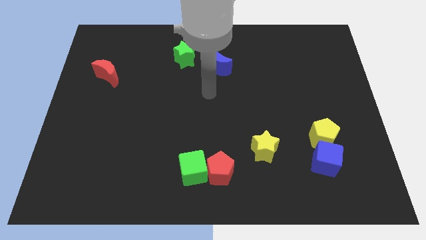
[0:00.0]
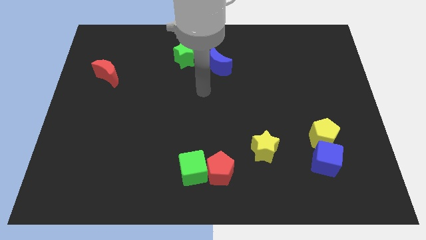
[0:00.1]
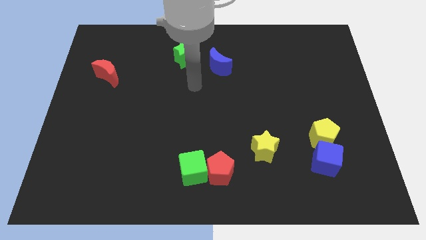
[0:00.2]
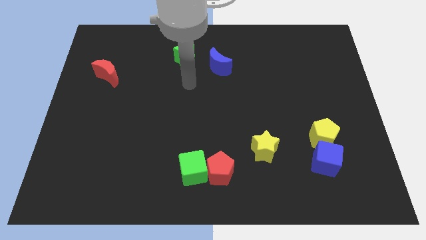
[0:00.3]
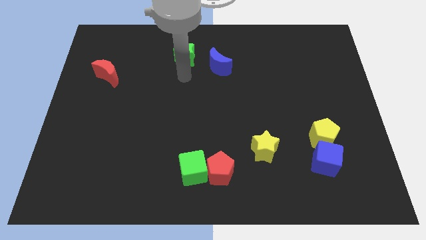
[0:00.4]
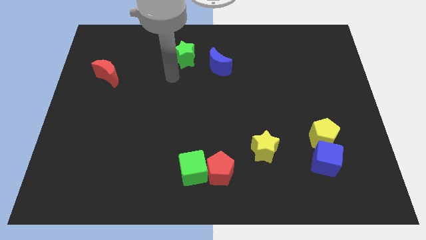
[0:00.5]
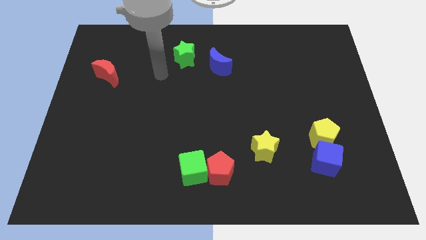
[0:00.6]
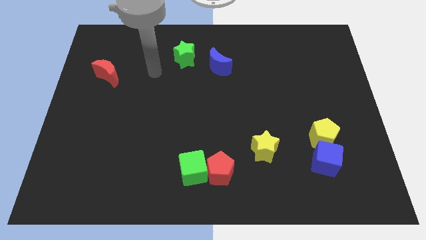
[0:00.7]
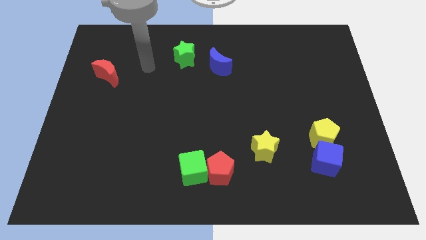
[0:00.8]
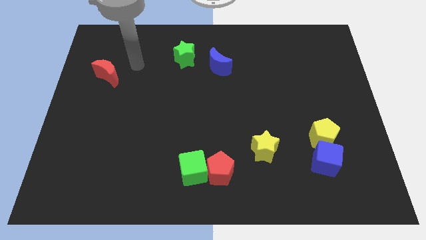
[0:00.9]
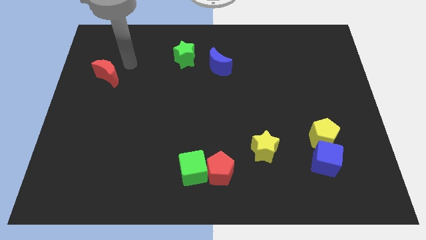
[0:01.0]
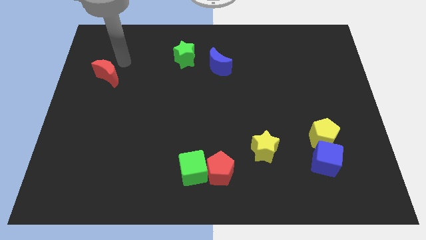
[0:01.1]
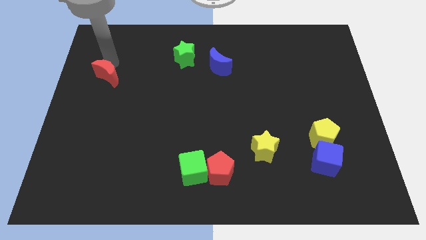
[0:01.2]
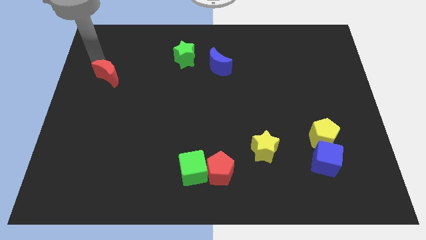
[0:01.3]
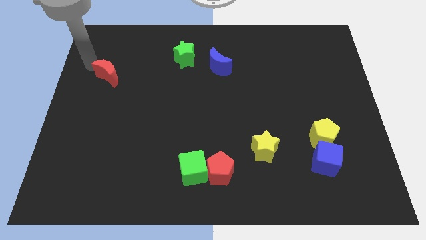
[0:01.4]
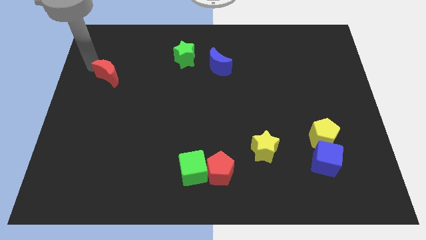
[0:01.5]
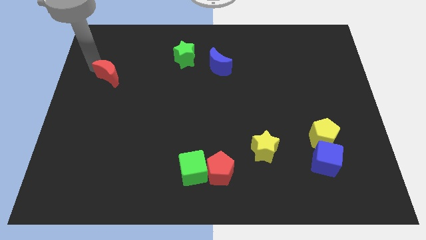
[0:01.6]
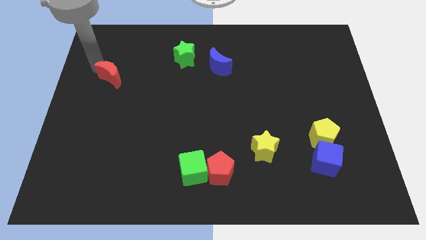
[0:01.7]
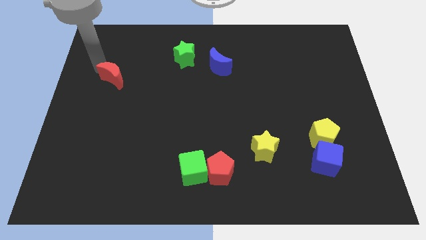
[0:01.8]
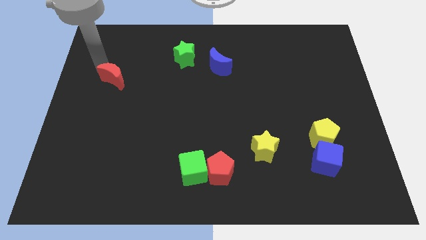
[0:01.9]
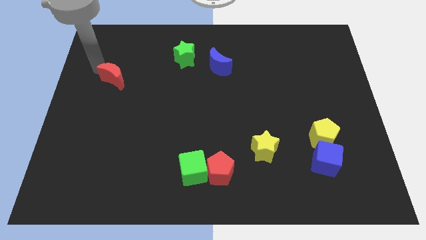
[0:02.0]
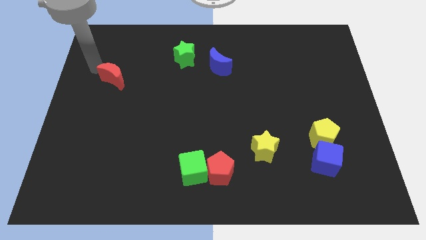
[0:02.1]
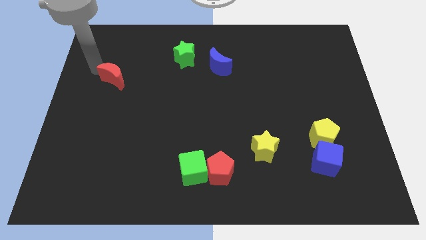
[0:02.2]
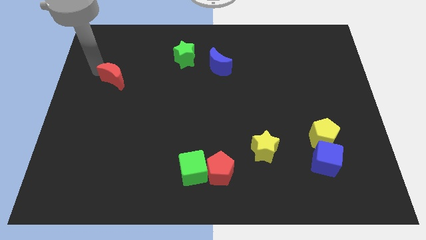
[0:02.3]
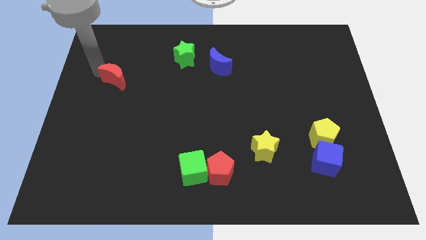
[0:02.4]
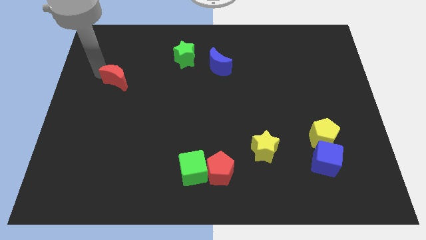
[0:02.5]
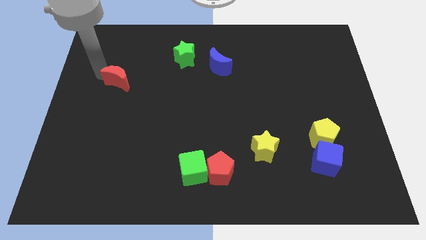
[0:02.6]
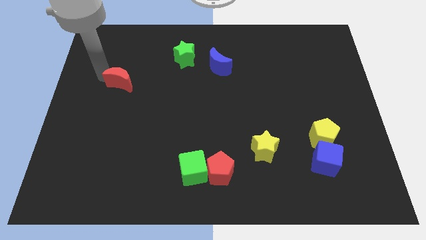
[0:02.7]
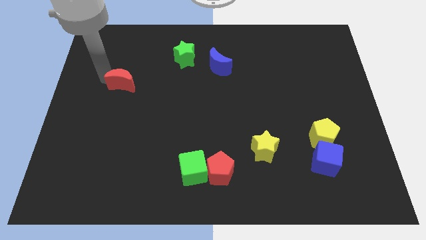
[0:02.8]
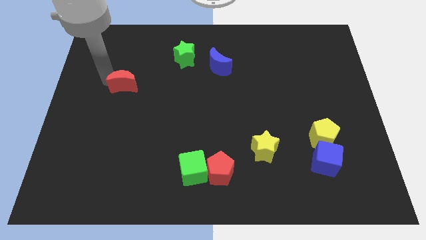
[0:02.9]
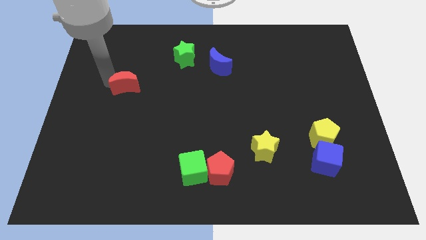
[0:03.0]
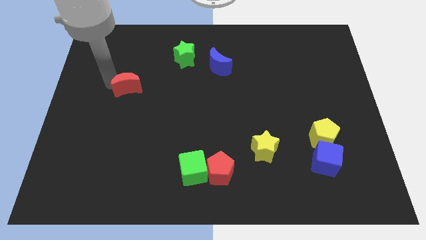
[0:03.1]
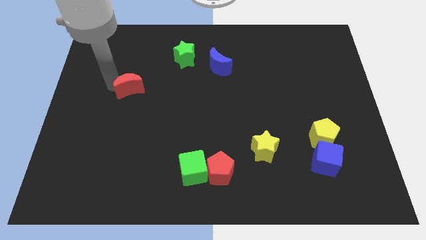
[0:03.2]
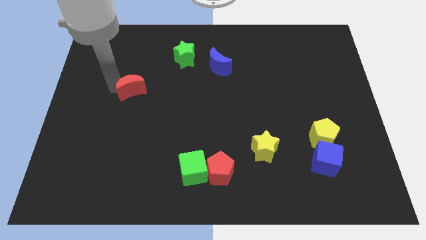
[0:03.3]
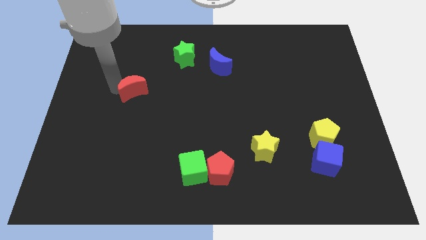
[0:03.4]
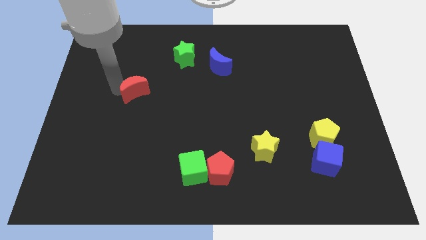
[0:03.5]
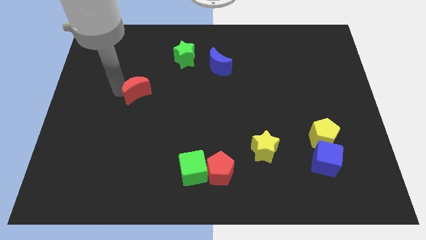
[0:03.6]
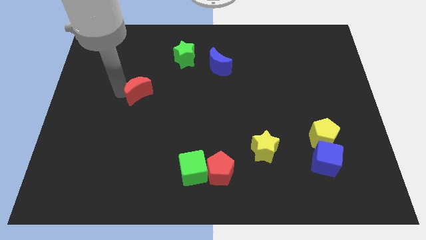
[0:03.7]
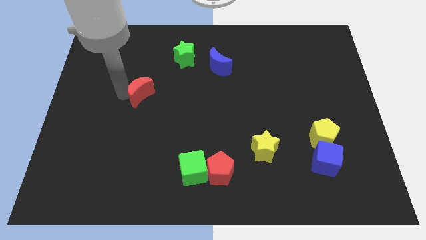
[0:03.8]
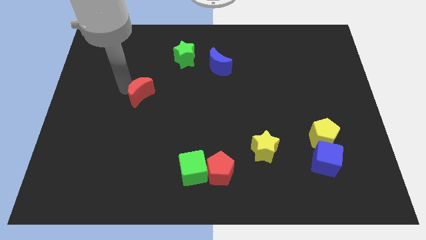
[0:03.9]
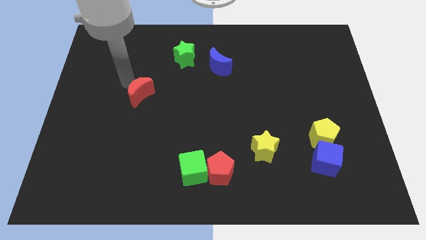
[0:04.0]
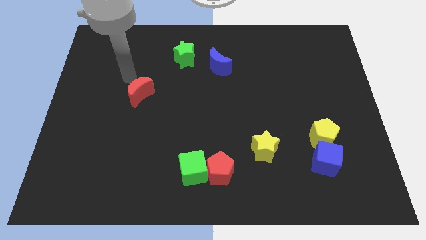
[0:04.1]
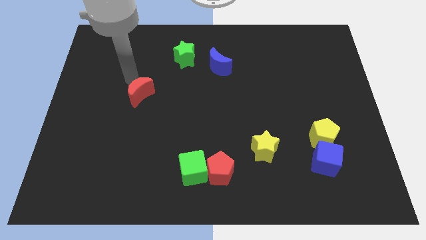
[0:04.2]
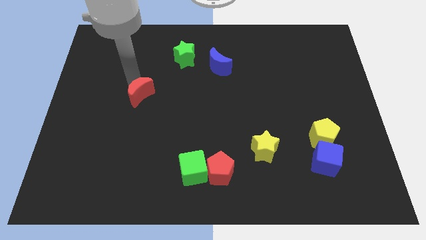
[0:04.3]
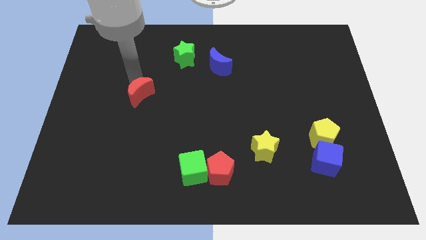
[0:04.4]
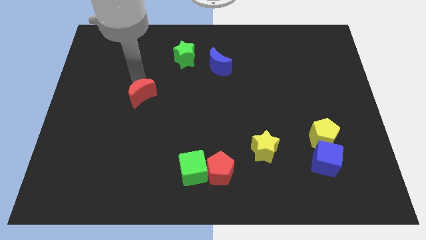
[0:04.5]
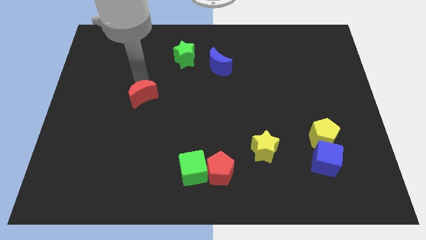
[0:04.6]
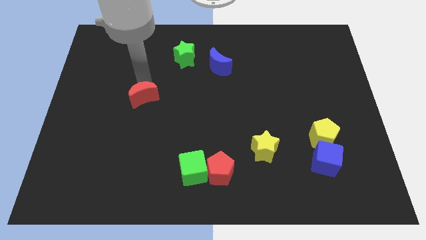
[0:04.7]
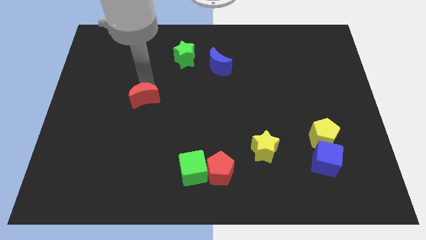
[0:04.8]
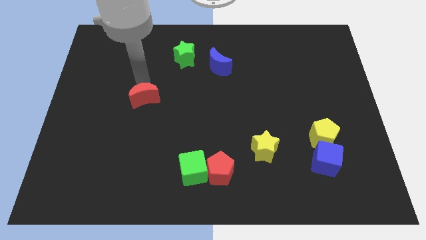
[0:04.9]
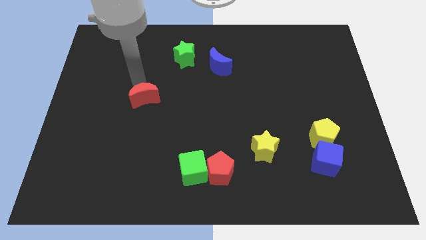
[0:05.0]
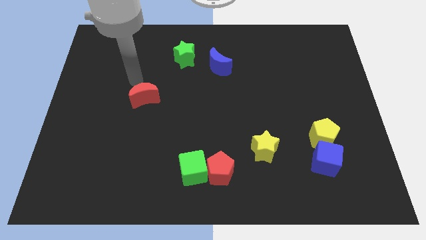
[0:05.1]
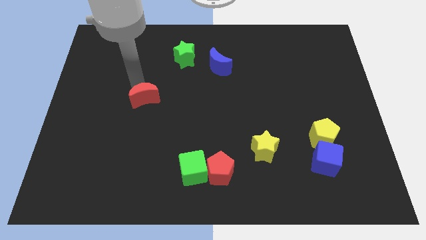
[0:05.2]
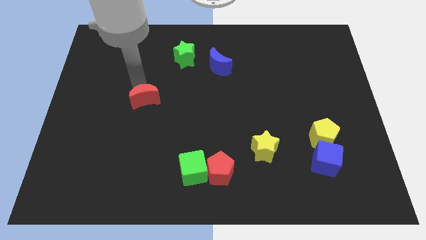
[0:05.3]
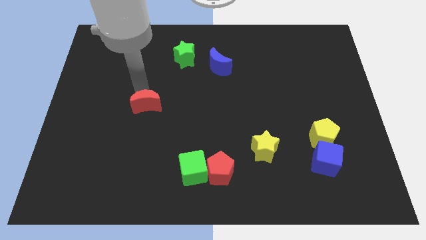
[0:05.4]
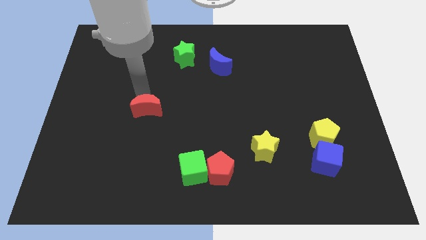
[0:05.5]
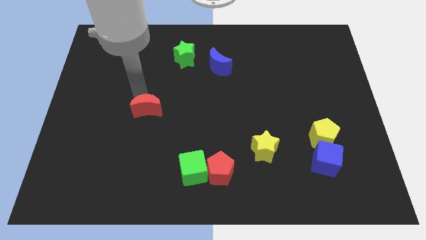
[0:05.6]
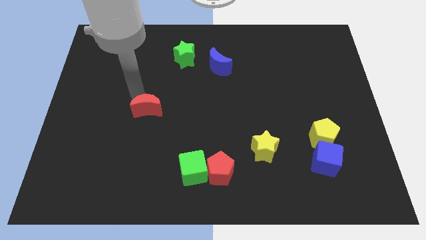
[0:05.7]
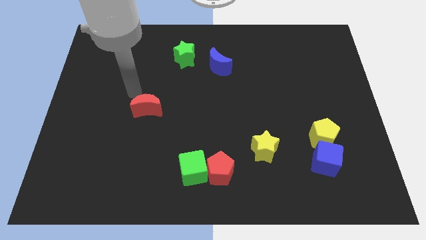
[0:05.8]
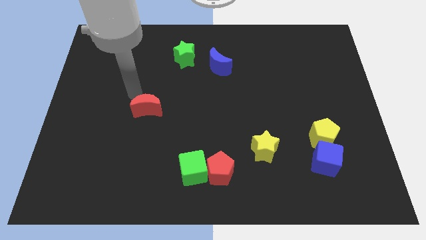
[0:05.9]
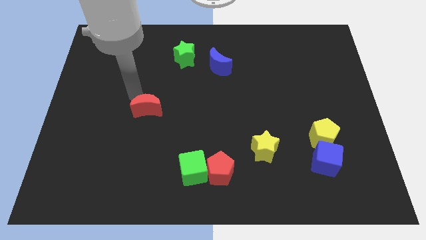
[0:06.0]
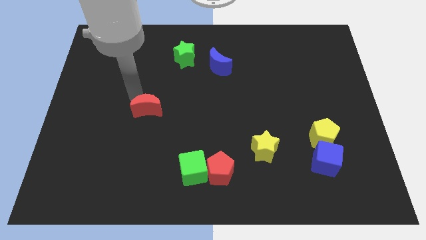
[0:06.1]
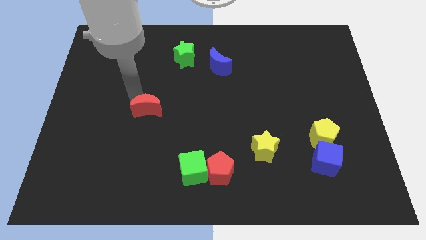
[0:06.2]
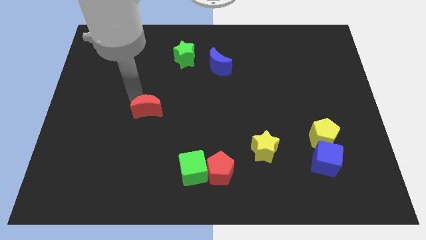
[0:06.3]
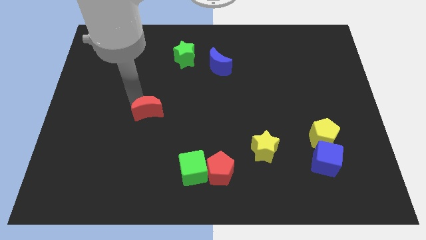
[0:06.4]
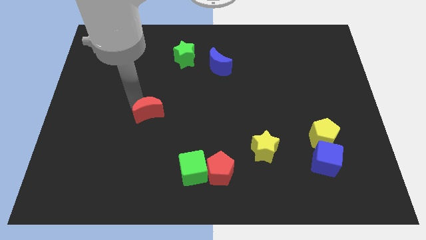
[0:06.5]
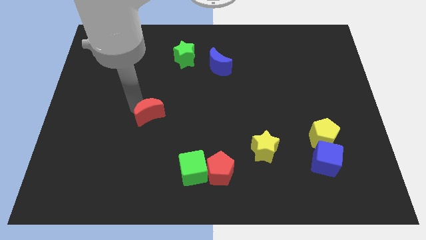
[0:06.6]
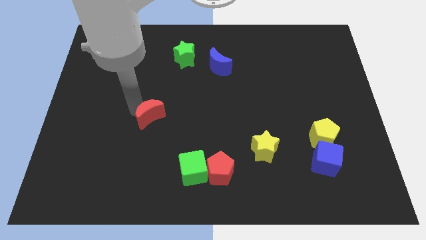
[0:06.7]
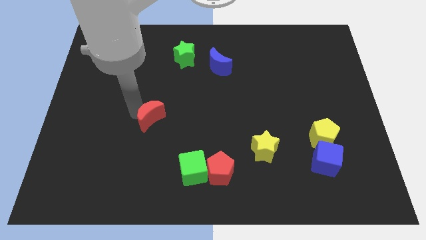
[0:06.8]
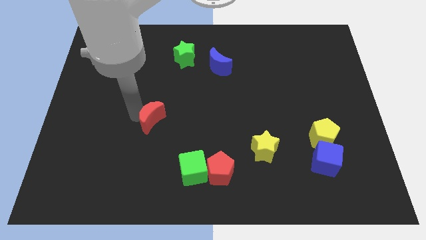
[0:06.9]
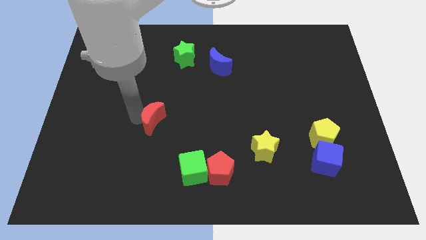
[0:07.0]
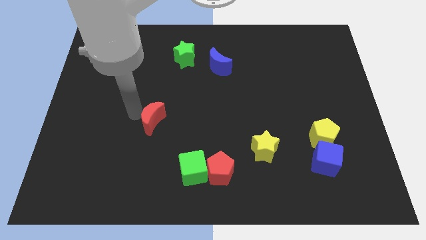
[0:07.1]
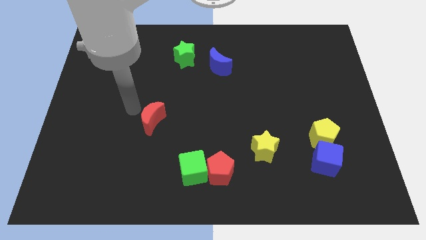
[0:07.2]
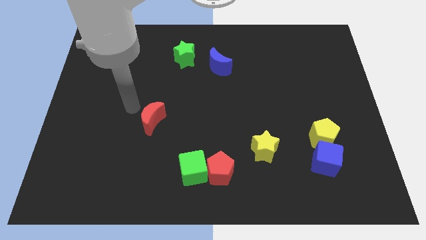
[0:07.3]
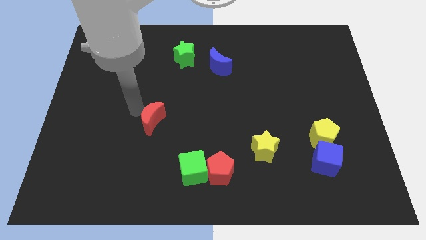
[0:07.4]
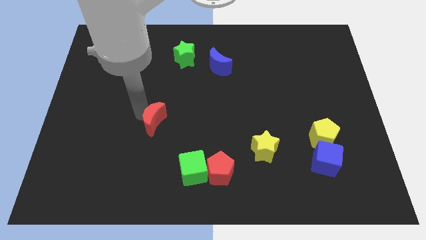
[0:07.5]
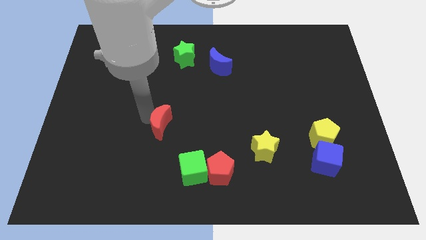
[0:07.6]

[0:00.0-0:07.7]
push the red moon diagonally downwards and to the right

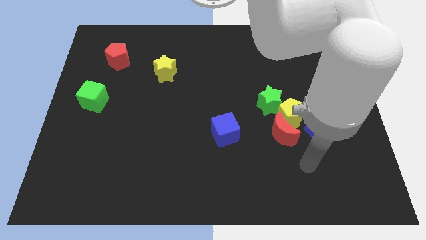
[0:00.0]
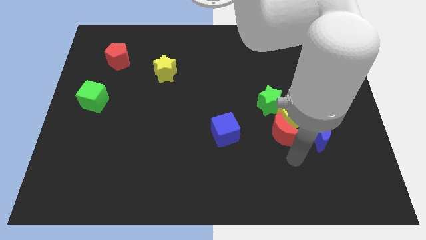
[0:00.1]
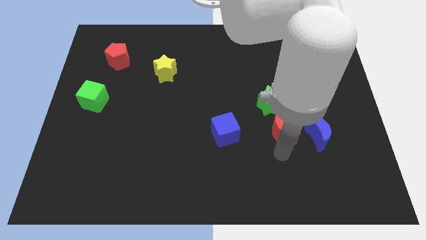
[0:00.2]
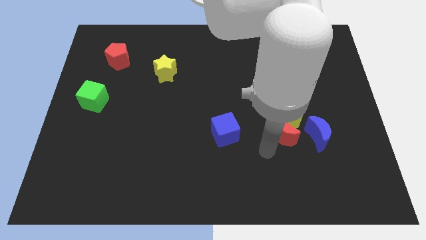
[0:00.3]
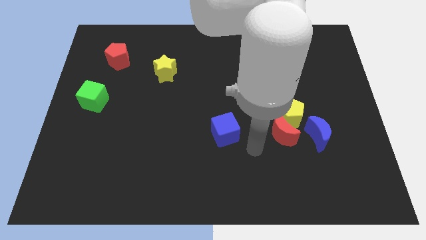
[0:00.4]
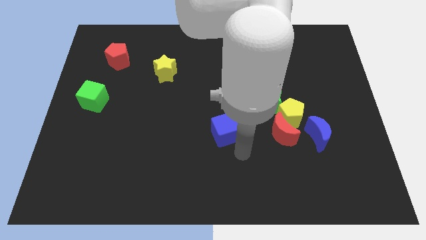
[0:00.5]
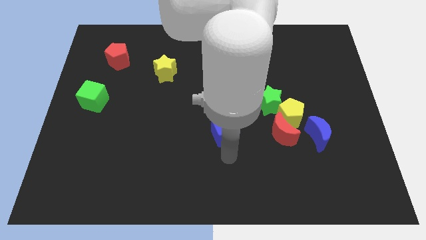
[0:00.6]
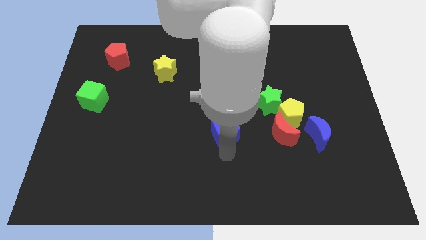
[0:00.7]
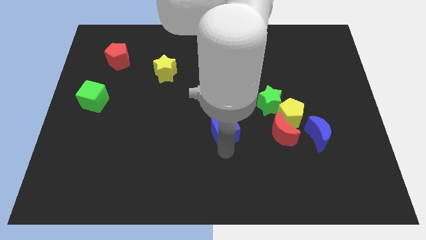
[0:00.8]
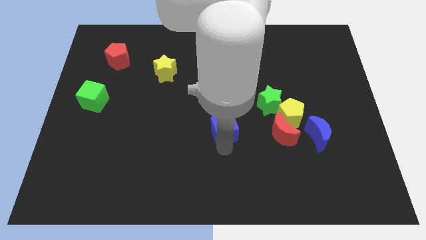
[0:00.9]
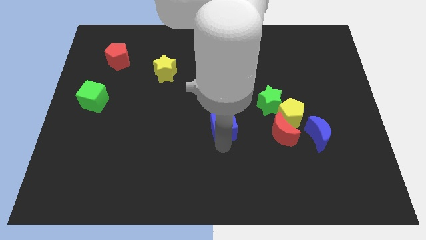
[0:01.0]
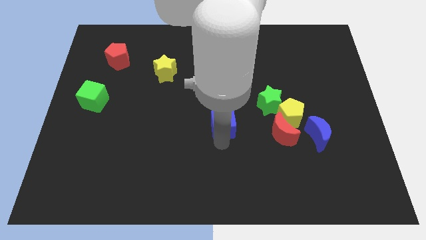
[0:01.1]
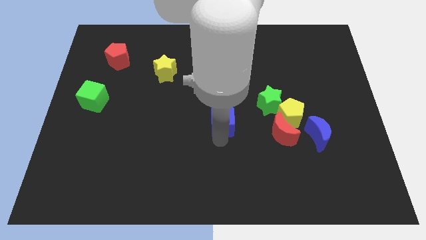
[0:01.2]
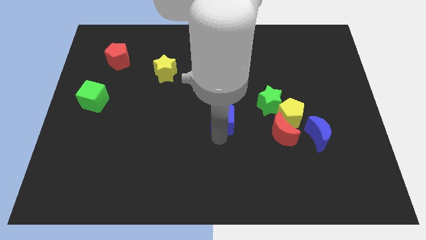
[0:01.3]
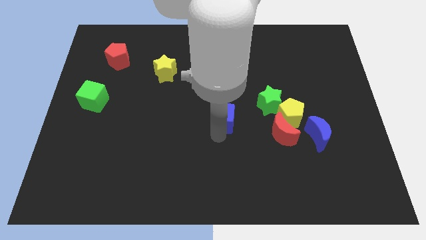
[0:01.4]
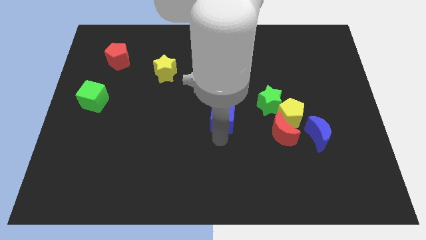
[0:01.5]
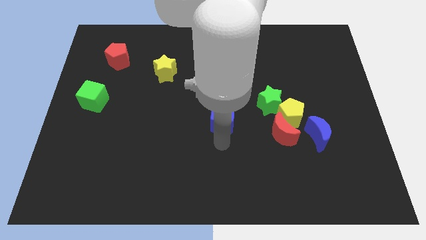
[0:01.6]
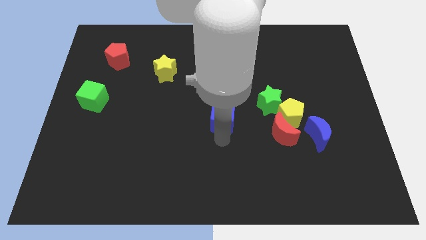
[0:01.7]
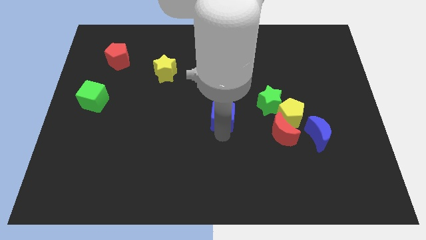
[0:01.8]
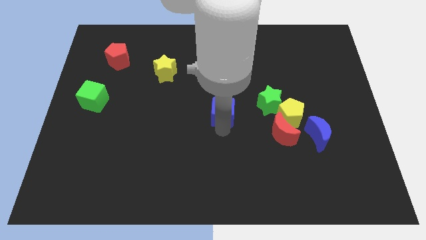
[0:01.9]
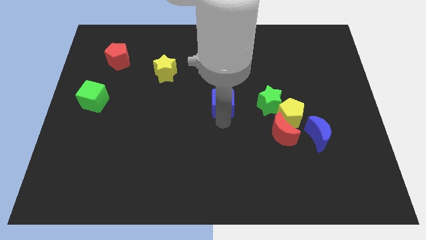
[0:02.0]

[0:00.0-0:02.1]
move the blue cube up a little bit
